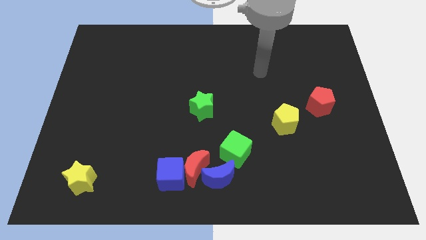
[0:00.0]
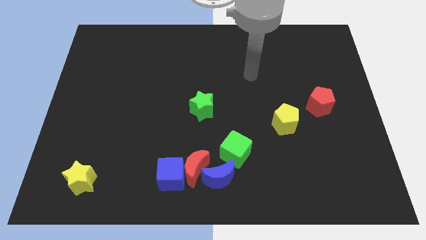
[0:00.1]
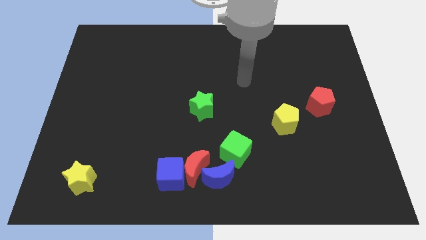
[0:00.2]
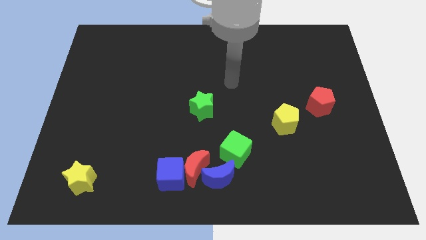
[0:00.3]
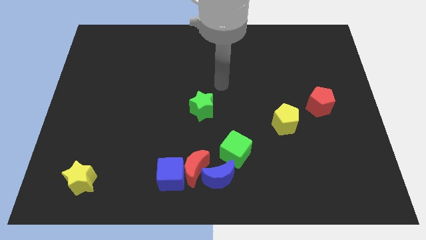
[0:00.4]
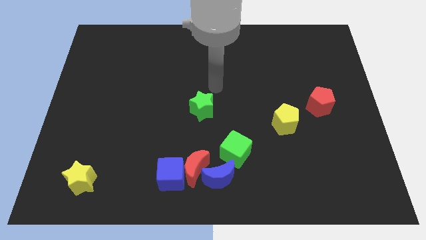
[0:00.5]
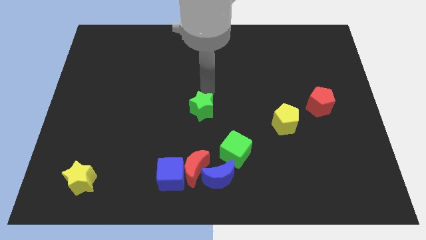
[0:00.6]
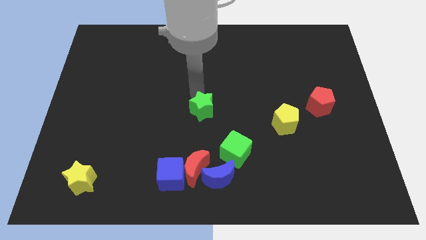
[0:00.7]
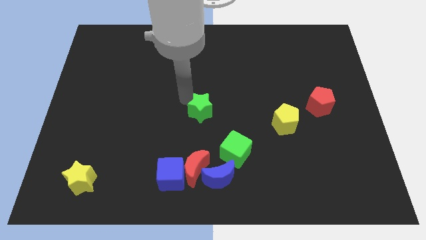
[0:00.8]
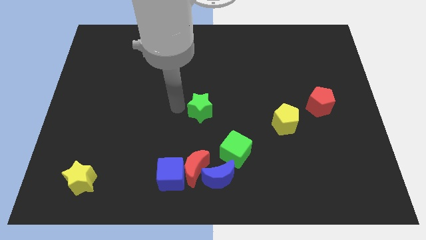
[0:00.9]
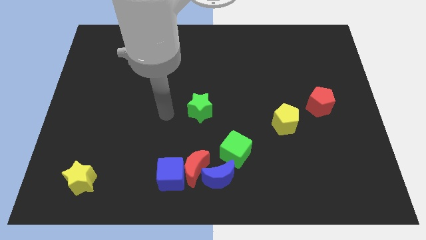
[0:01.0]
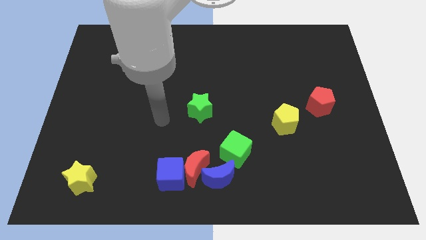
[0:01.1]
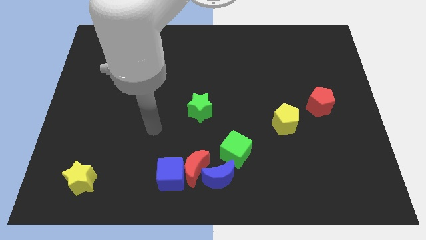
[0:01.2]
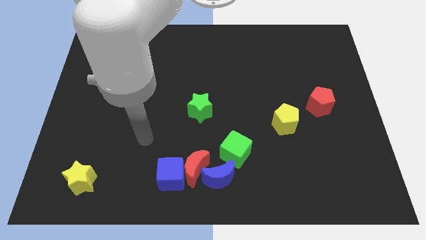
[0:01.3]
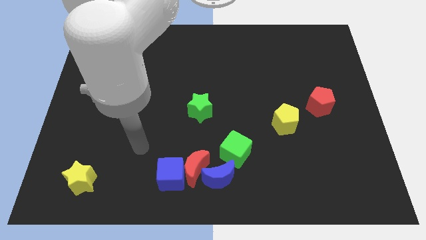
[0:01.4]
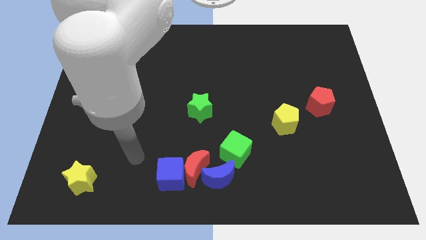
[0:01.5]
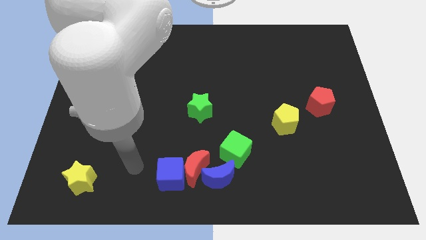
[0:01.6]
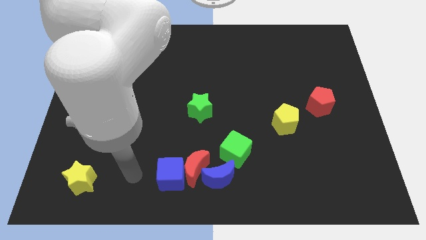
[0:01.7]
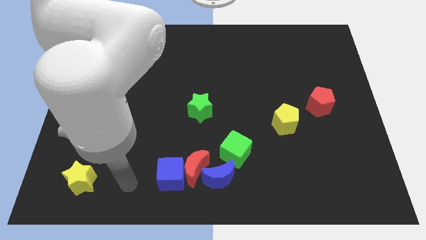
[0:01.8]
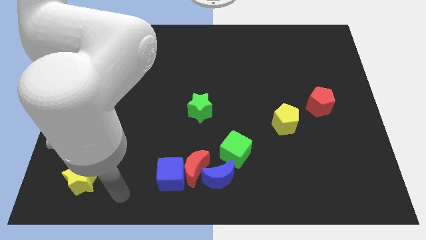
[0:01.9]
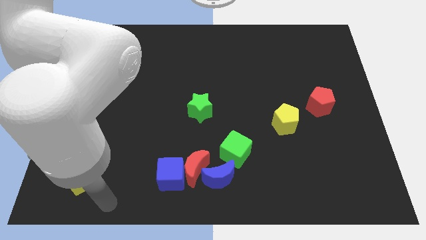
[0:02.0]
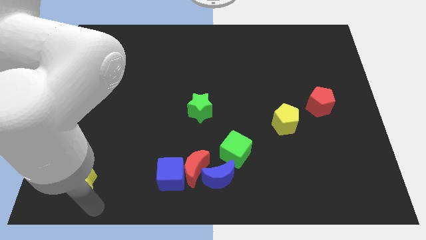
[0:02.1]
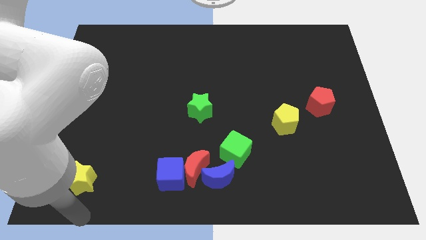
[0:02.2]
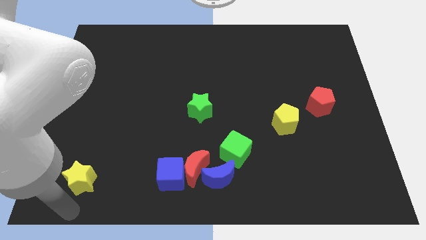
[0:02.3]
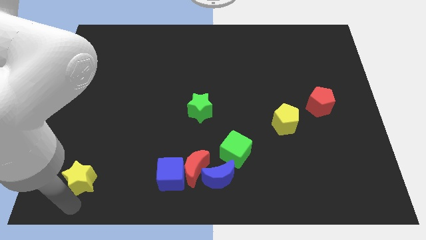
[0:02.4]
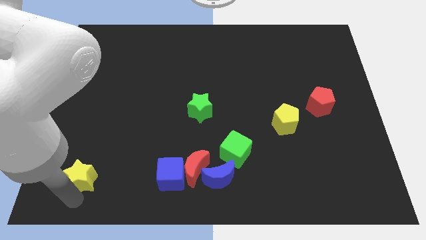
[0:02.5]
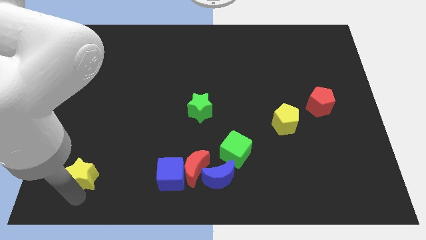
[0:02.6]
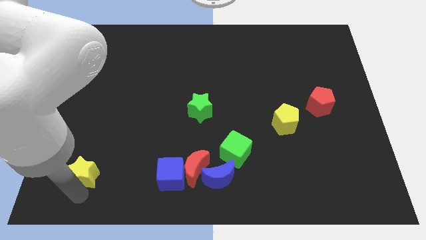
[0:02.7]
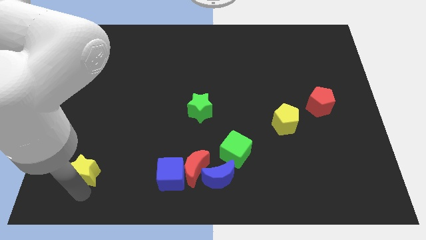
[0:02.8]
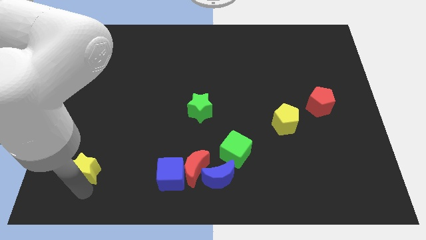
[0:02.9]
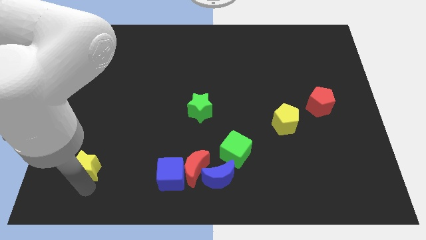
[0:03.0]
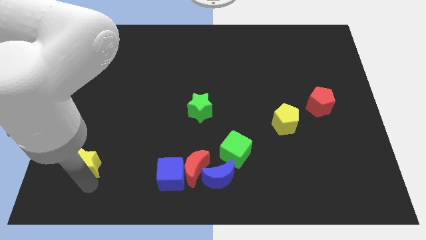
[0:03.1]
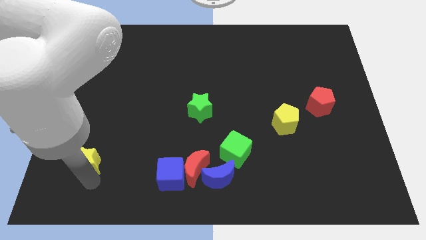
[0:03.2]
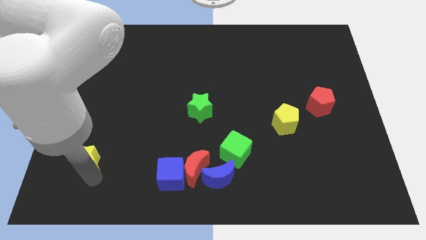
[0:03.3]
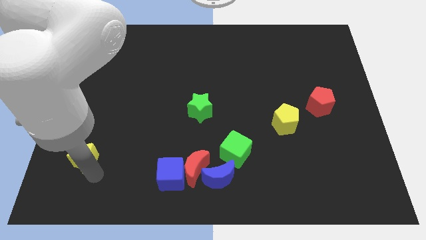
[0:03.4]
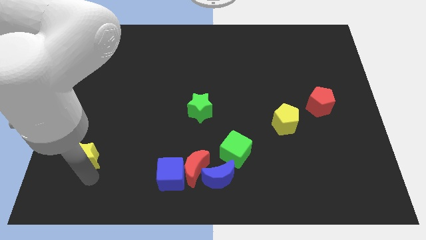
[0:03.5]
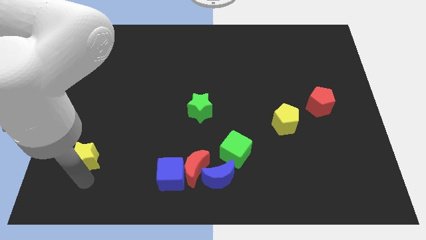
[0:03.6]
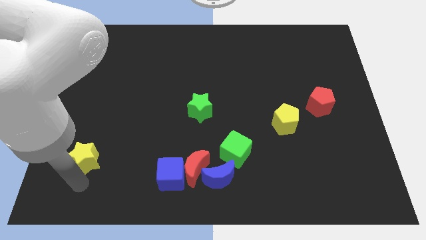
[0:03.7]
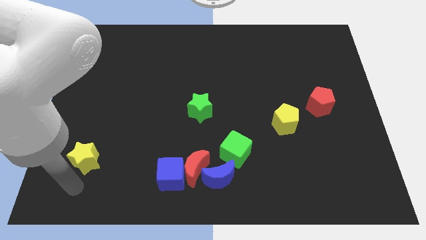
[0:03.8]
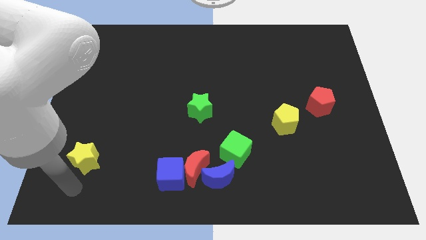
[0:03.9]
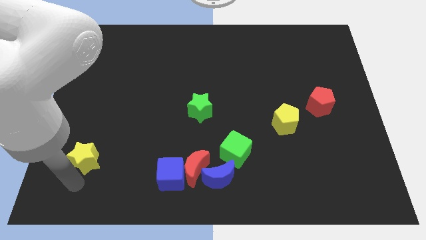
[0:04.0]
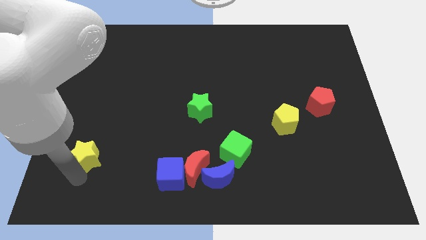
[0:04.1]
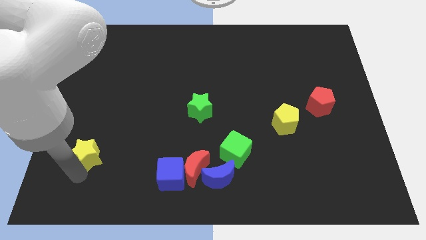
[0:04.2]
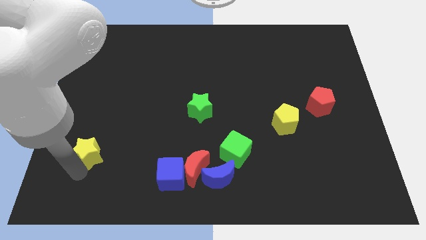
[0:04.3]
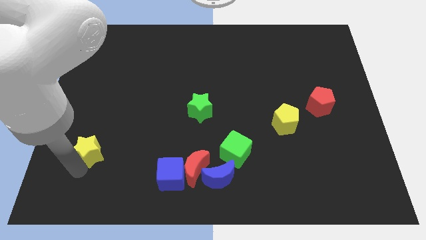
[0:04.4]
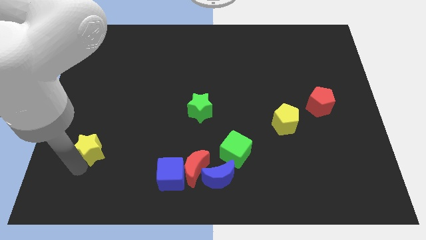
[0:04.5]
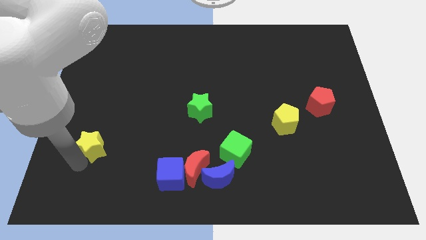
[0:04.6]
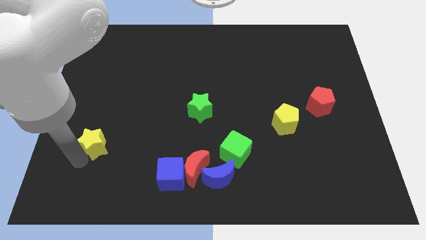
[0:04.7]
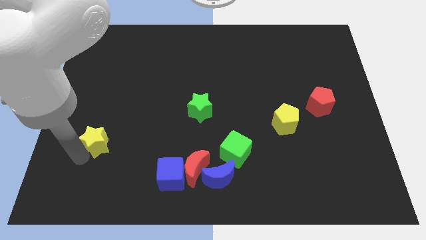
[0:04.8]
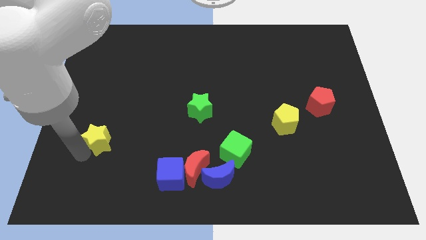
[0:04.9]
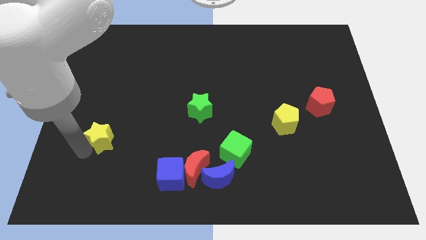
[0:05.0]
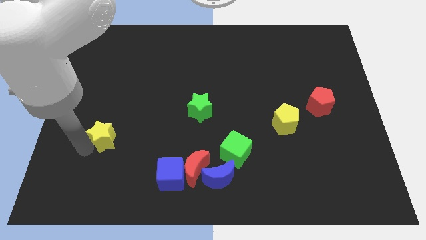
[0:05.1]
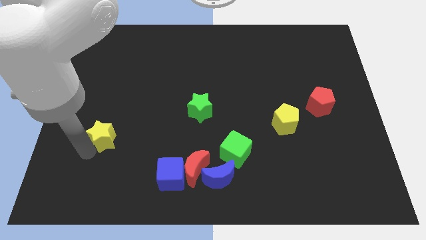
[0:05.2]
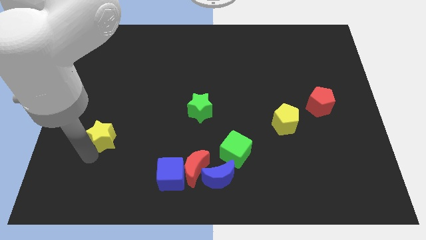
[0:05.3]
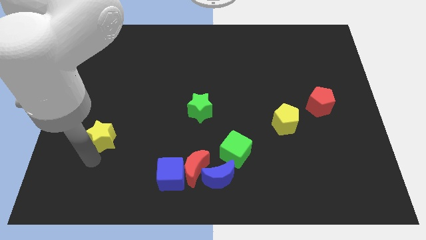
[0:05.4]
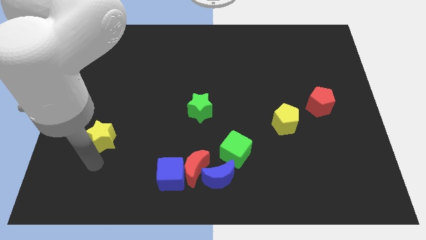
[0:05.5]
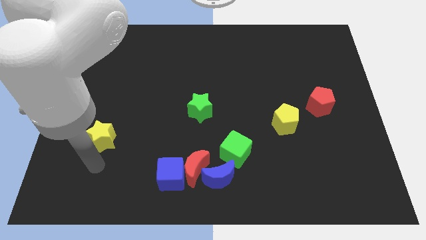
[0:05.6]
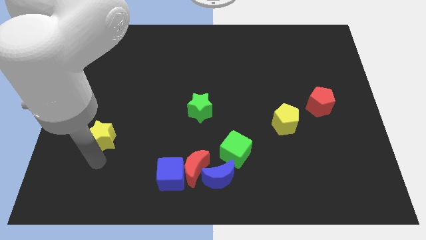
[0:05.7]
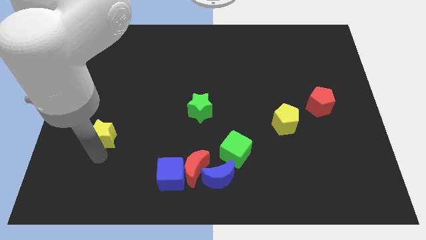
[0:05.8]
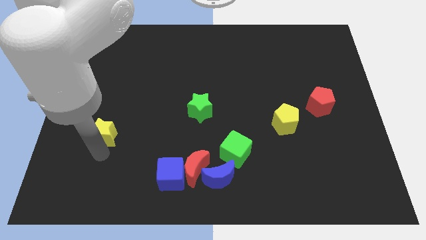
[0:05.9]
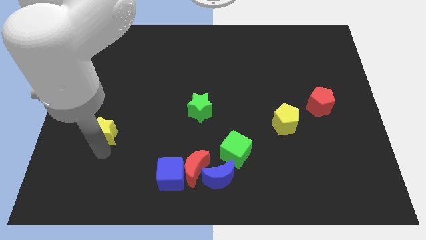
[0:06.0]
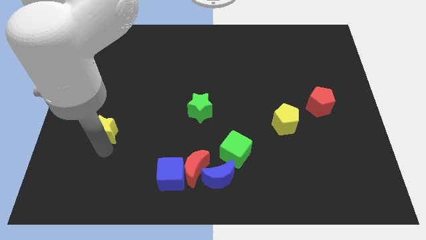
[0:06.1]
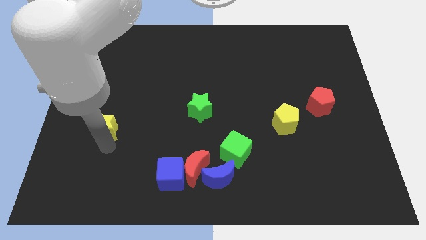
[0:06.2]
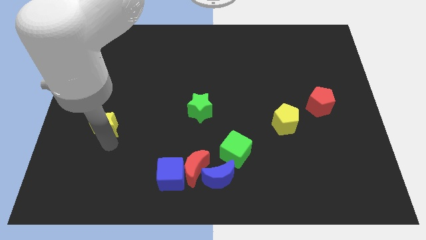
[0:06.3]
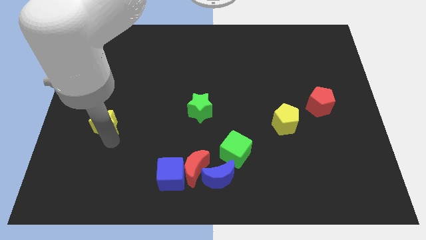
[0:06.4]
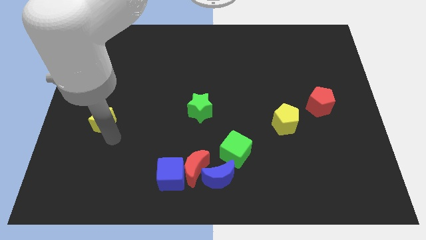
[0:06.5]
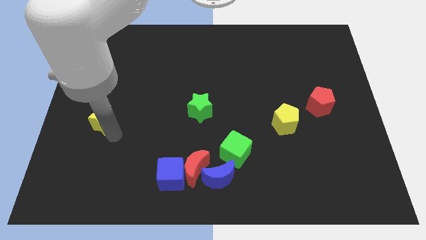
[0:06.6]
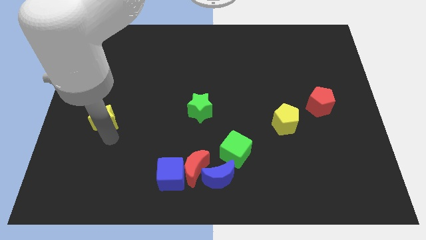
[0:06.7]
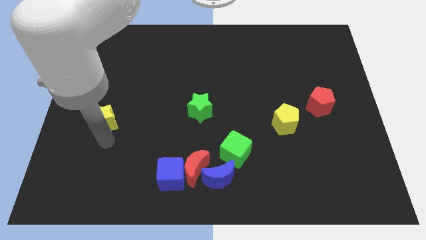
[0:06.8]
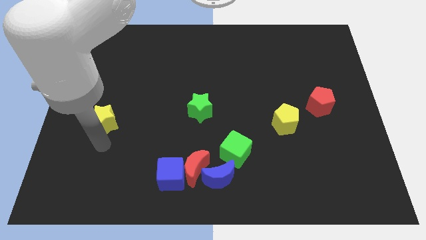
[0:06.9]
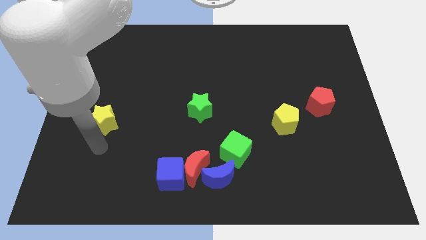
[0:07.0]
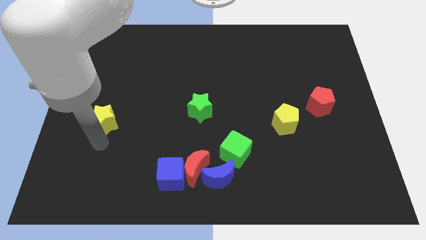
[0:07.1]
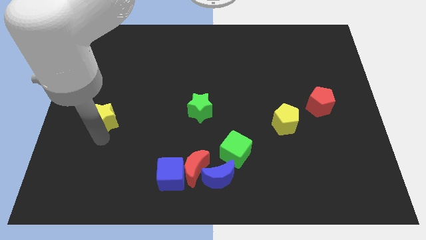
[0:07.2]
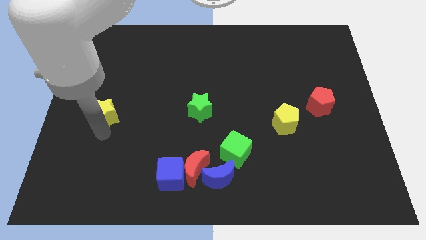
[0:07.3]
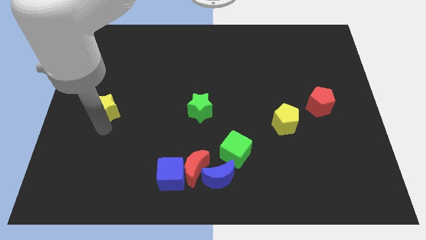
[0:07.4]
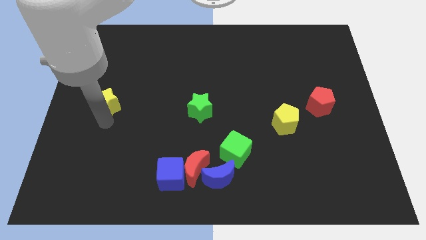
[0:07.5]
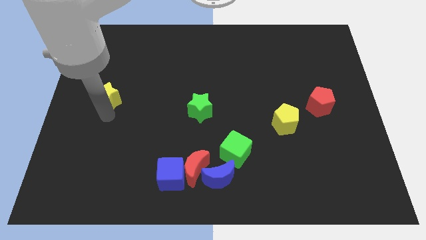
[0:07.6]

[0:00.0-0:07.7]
push the yellow star upwards
